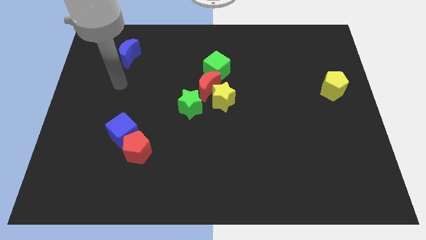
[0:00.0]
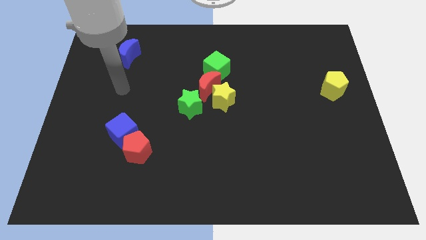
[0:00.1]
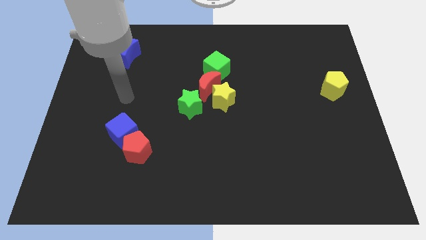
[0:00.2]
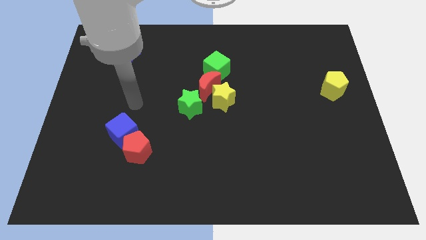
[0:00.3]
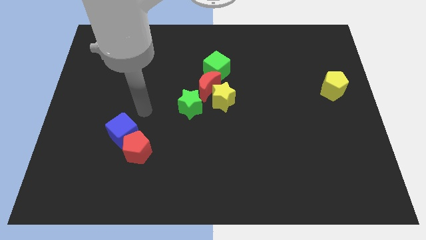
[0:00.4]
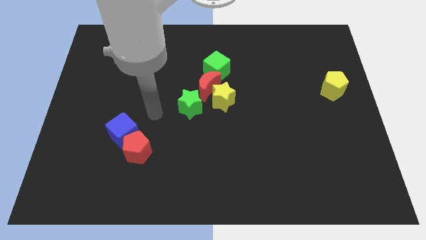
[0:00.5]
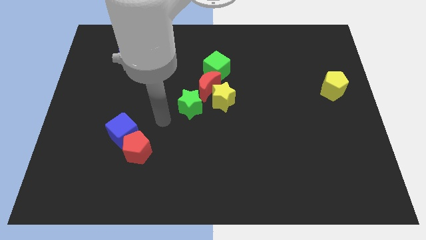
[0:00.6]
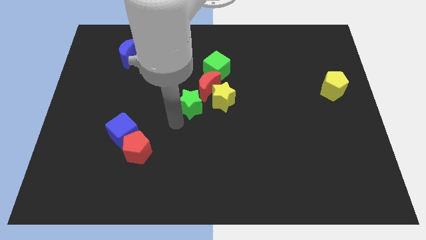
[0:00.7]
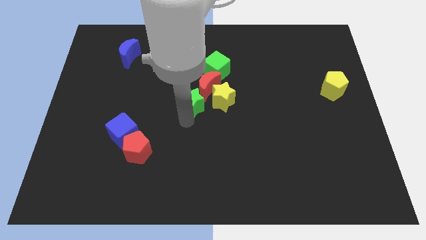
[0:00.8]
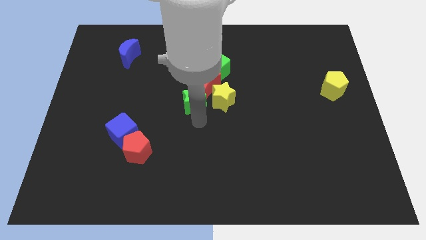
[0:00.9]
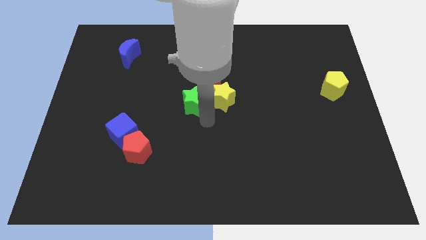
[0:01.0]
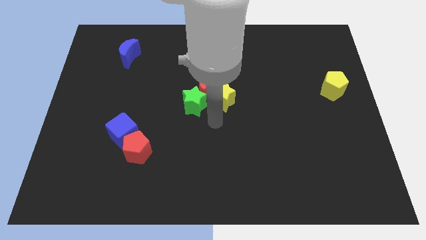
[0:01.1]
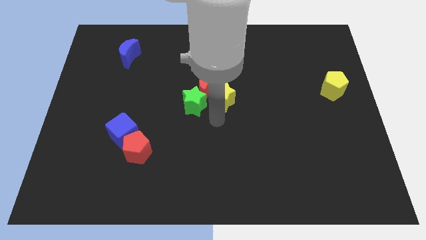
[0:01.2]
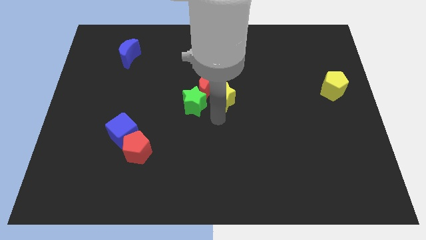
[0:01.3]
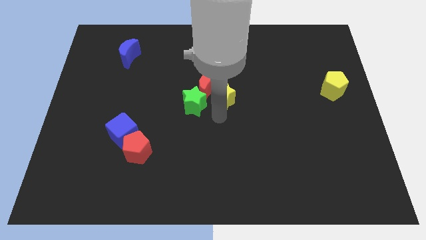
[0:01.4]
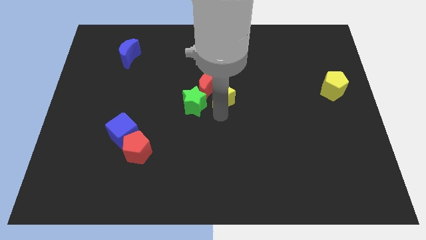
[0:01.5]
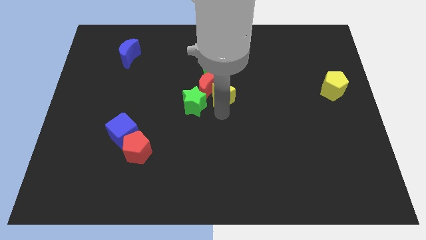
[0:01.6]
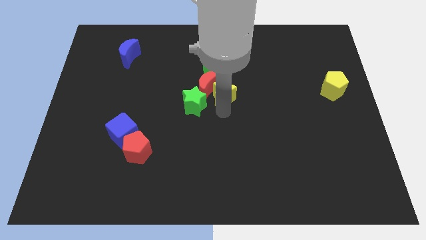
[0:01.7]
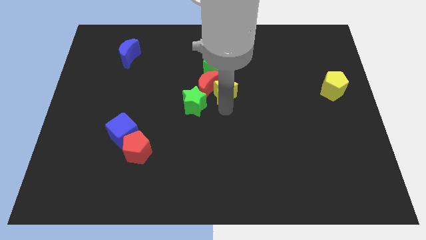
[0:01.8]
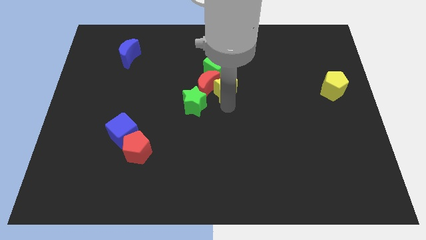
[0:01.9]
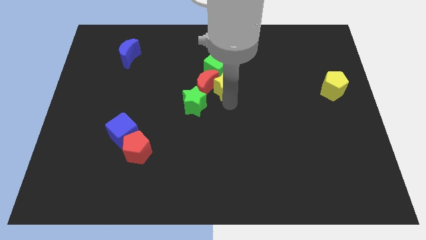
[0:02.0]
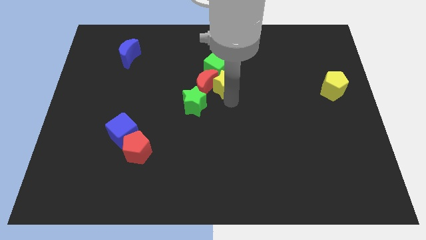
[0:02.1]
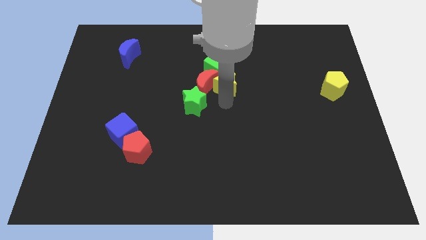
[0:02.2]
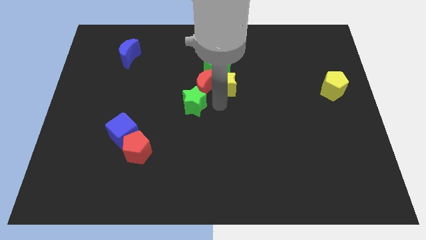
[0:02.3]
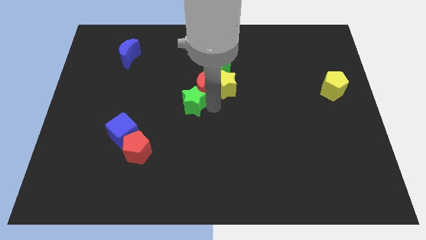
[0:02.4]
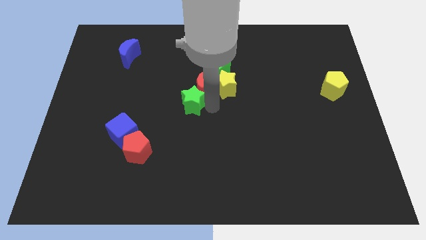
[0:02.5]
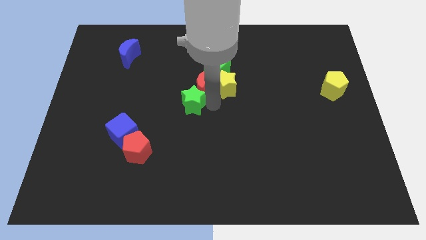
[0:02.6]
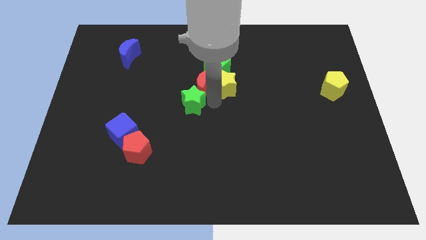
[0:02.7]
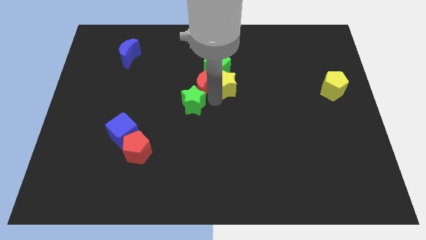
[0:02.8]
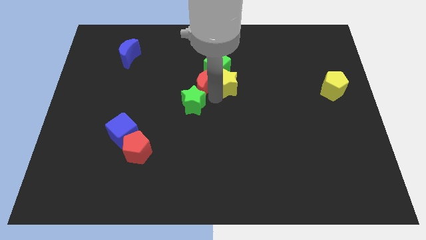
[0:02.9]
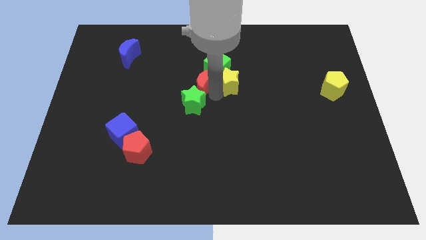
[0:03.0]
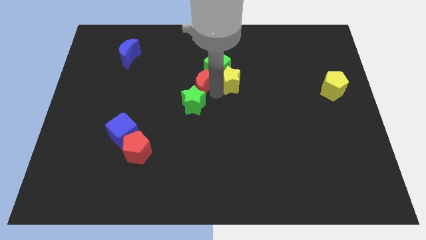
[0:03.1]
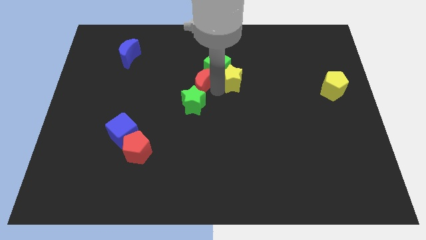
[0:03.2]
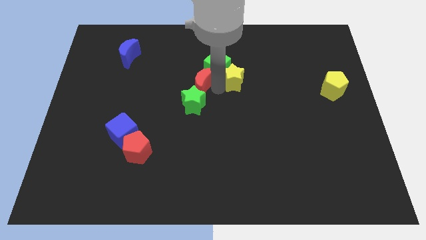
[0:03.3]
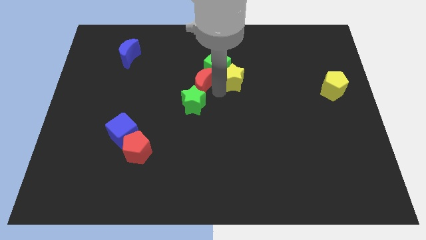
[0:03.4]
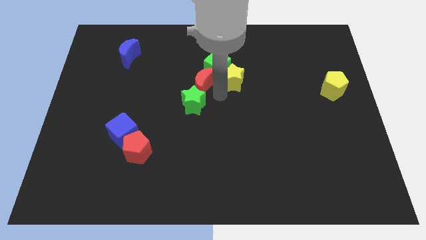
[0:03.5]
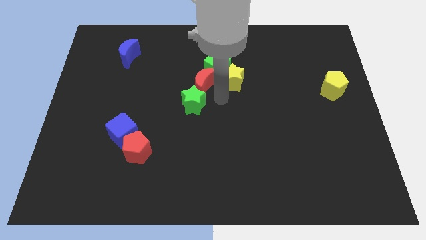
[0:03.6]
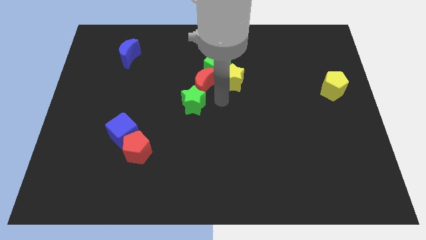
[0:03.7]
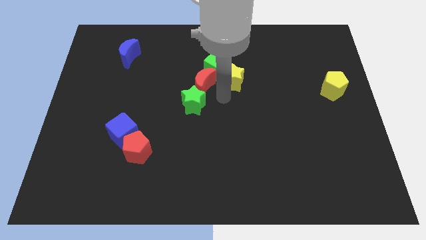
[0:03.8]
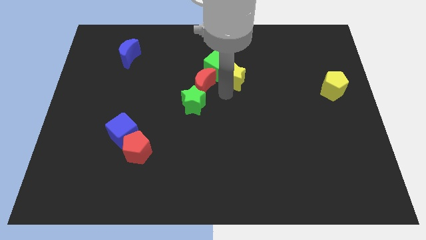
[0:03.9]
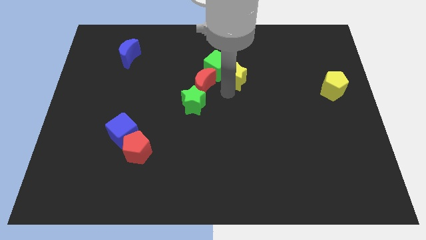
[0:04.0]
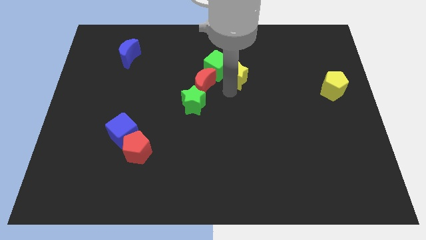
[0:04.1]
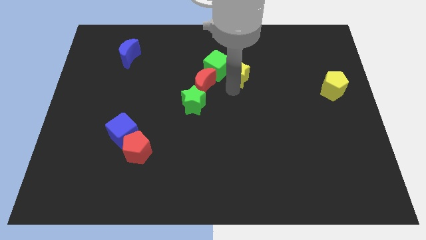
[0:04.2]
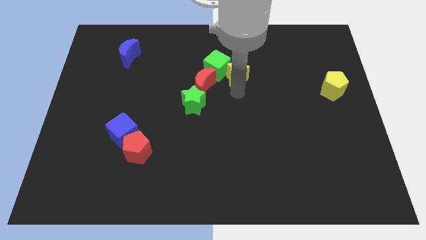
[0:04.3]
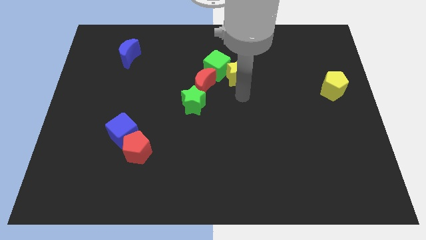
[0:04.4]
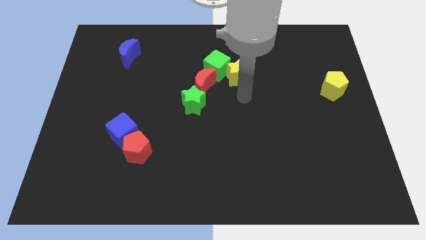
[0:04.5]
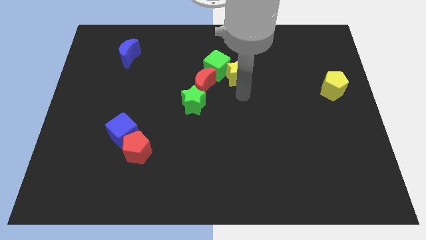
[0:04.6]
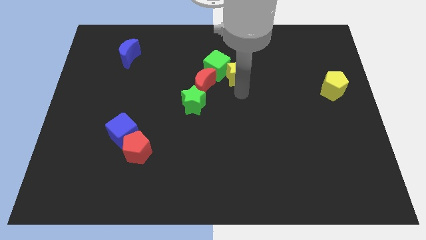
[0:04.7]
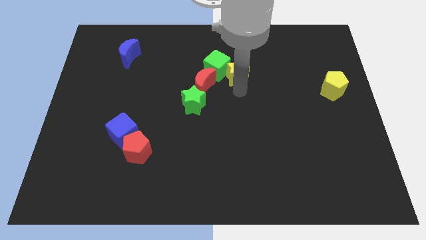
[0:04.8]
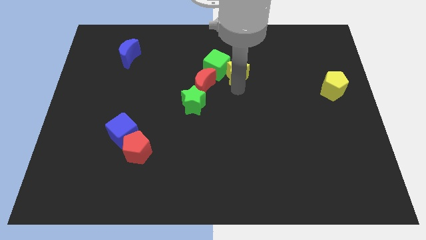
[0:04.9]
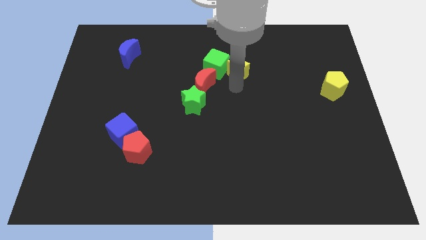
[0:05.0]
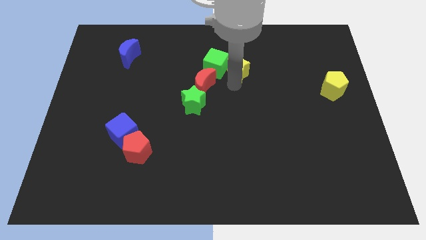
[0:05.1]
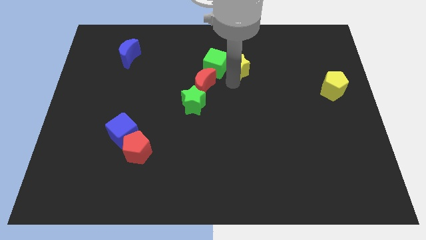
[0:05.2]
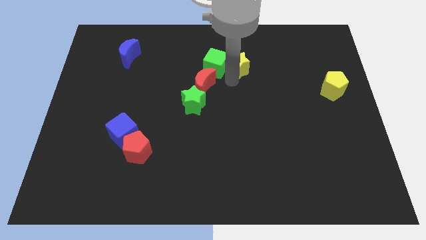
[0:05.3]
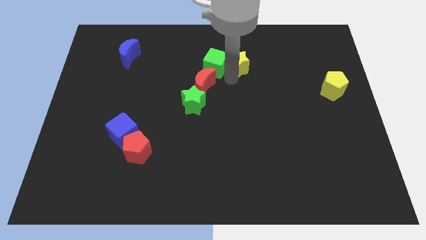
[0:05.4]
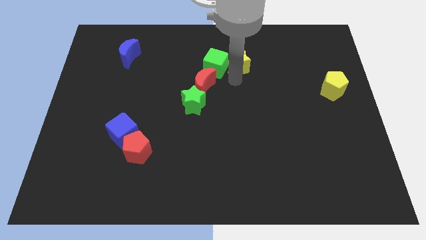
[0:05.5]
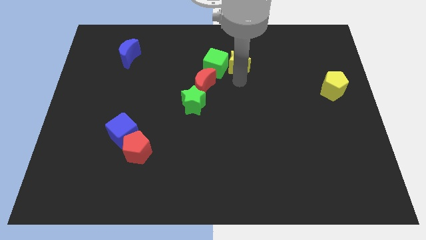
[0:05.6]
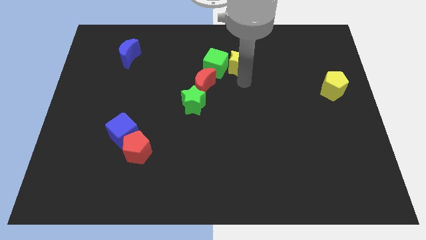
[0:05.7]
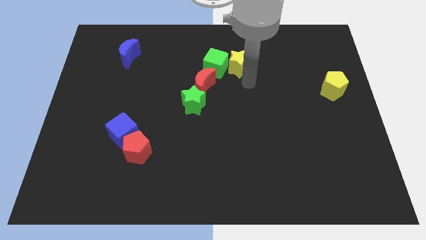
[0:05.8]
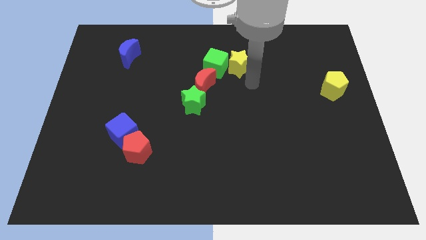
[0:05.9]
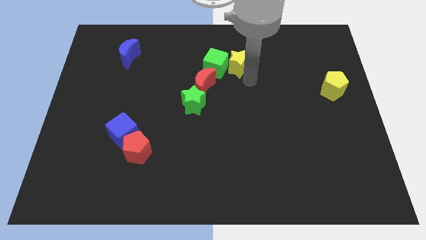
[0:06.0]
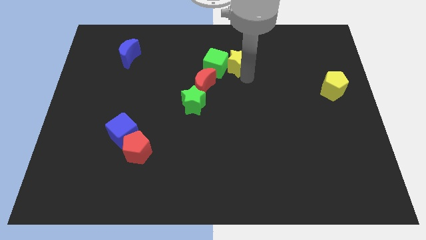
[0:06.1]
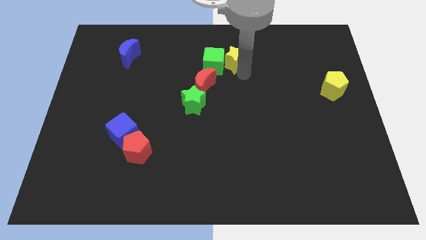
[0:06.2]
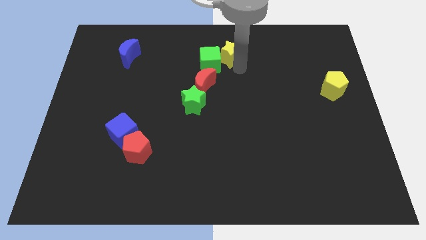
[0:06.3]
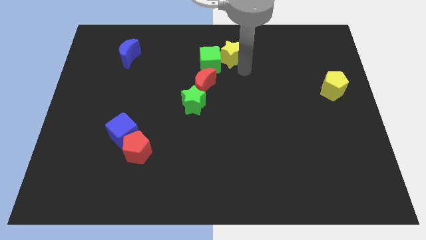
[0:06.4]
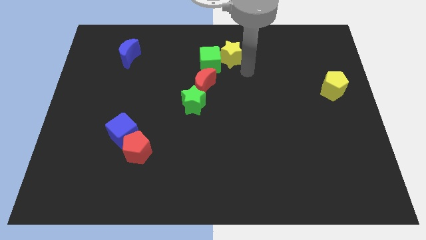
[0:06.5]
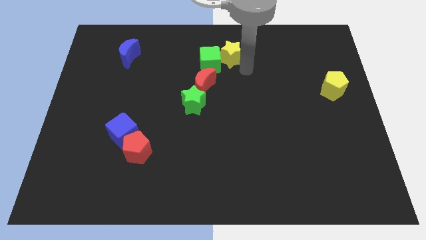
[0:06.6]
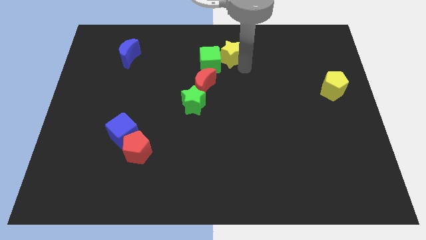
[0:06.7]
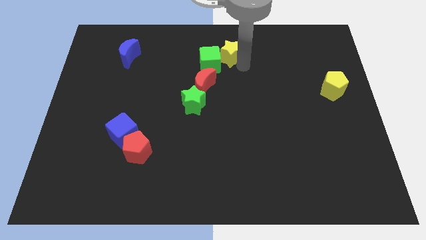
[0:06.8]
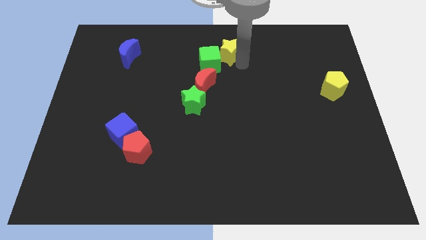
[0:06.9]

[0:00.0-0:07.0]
move the yellow star to the top side
